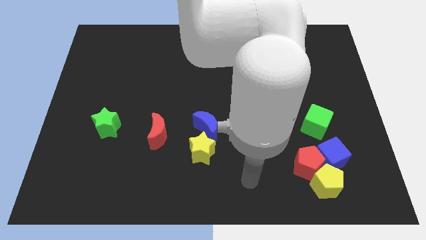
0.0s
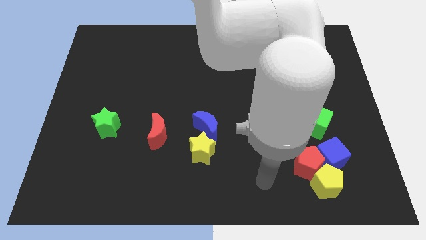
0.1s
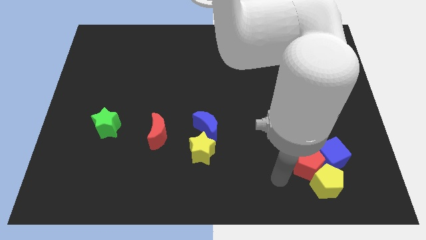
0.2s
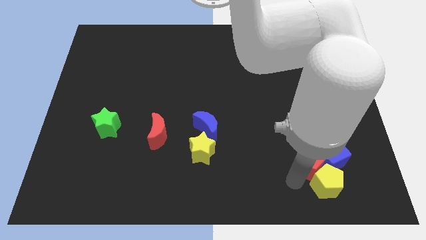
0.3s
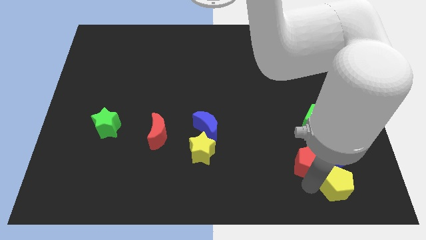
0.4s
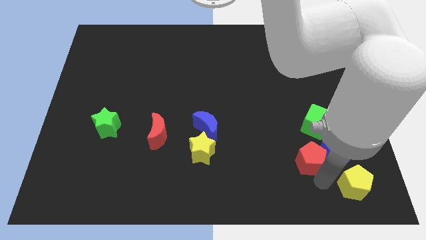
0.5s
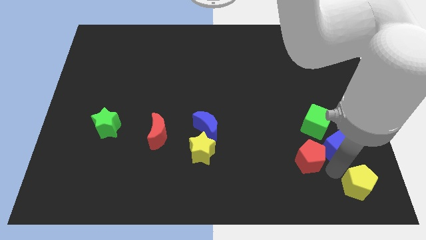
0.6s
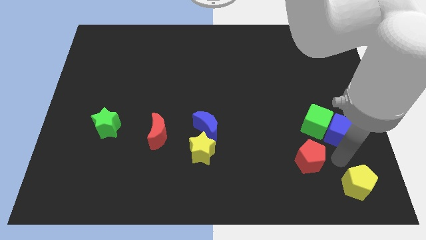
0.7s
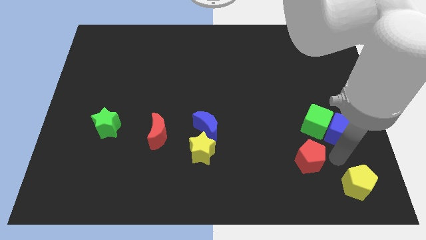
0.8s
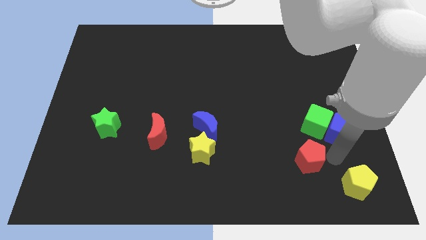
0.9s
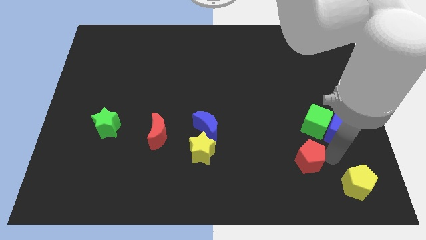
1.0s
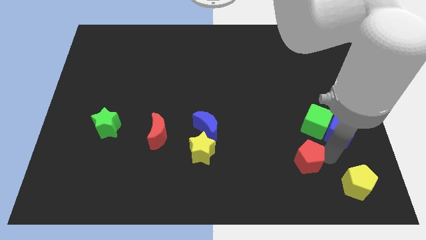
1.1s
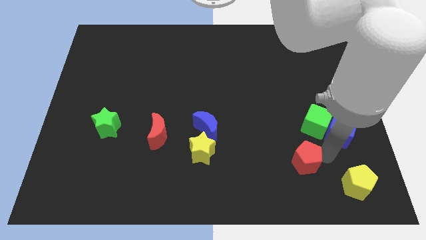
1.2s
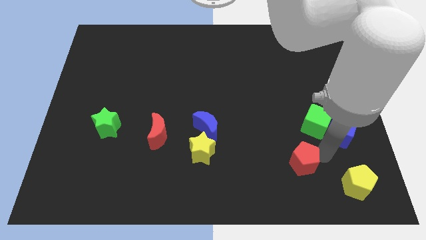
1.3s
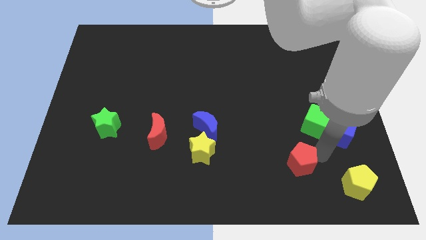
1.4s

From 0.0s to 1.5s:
pull the red pentagon apart from the yellow pentagon and blue cube

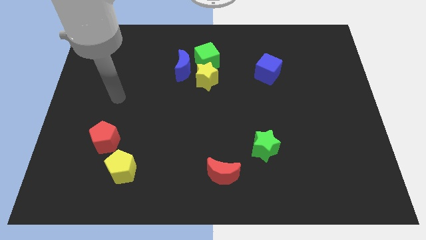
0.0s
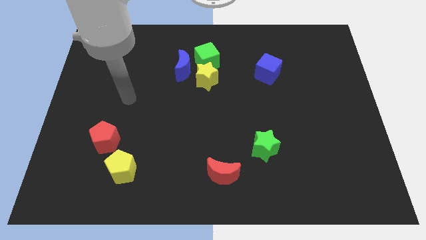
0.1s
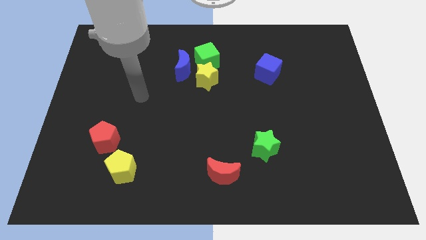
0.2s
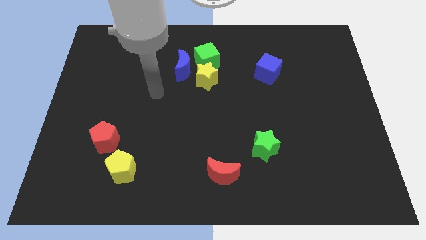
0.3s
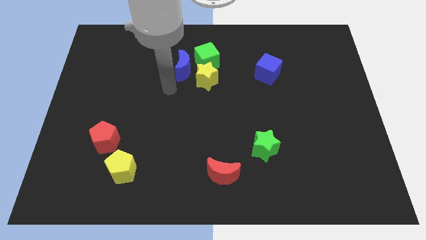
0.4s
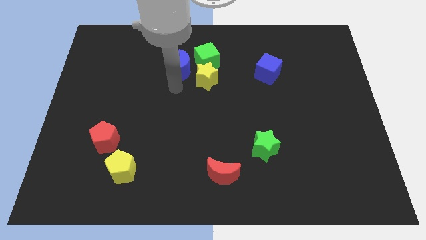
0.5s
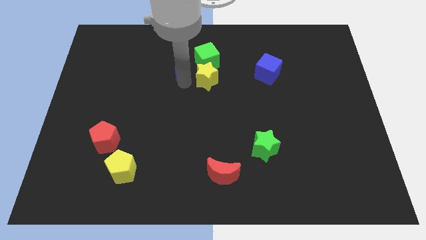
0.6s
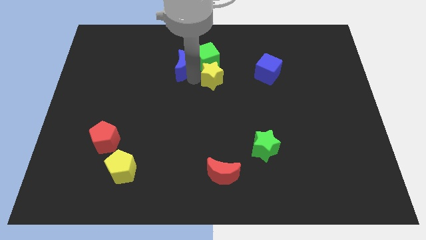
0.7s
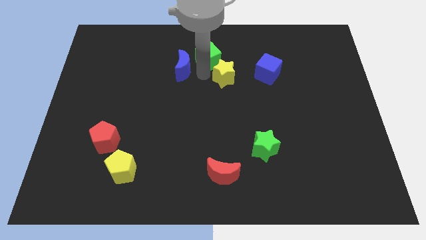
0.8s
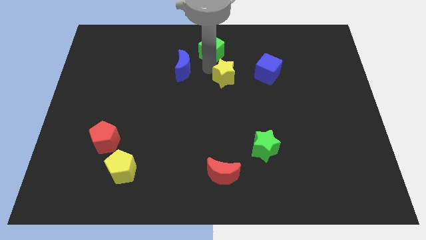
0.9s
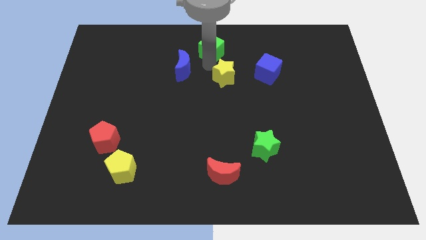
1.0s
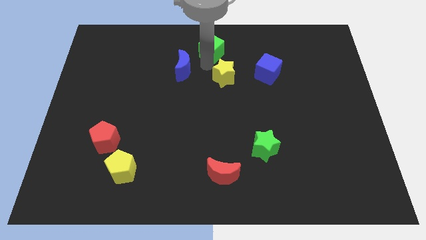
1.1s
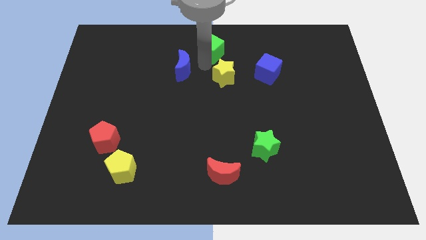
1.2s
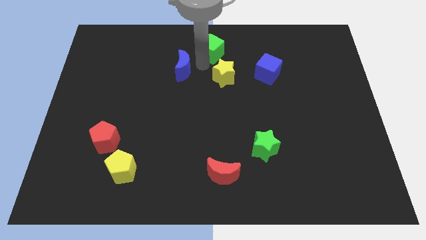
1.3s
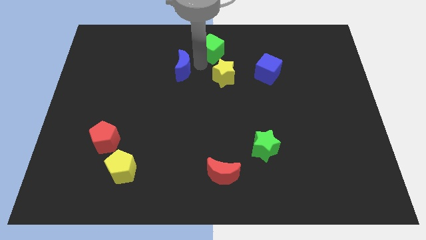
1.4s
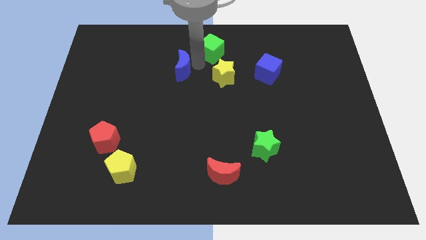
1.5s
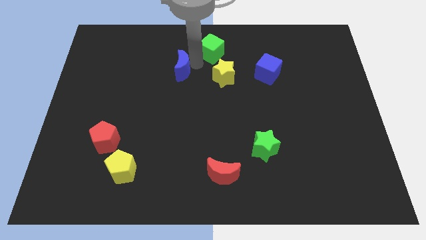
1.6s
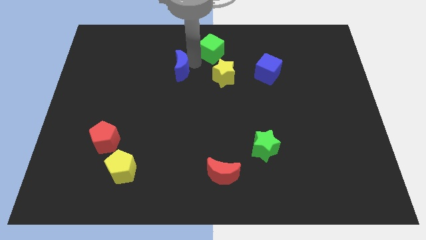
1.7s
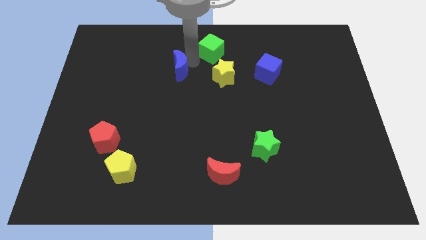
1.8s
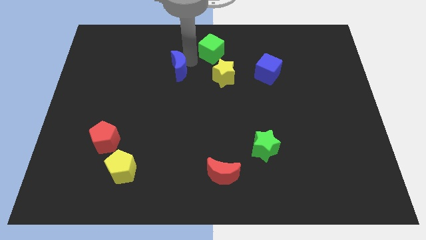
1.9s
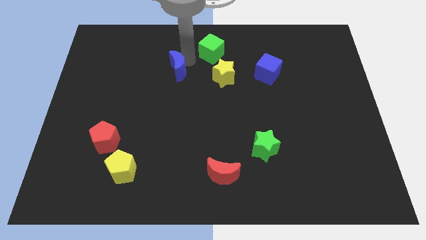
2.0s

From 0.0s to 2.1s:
separate the blue moon from the green cube and yellow star

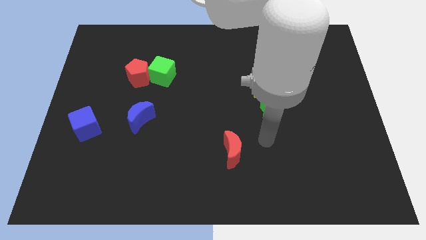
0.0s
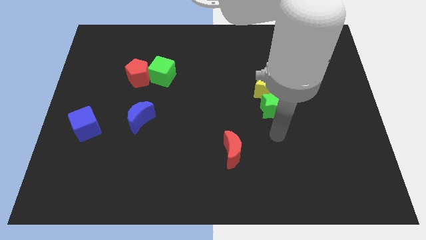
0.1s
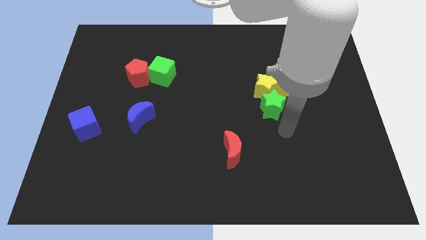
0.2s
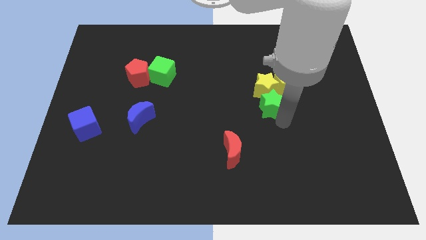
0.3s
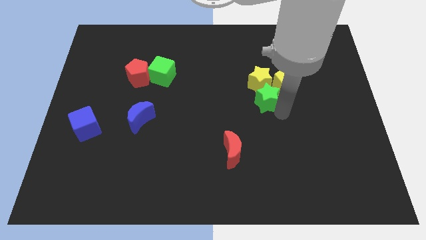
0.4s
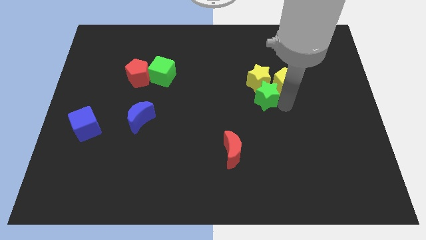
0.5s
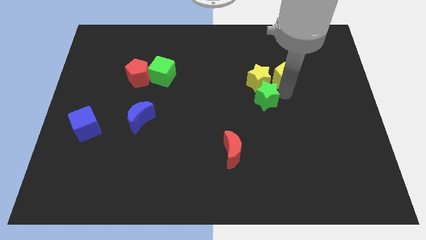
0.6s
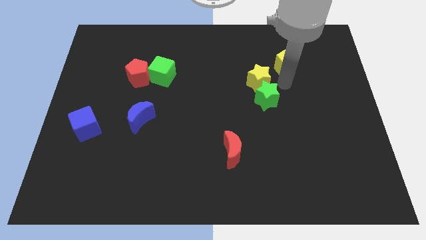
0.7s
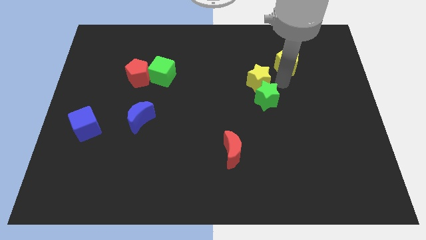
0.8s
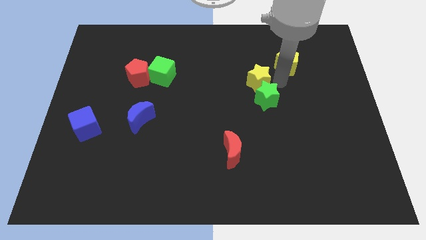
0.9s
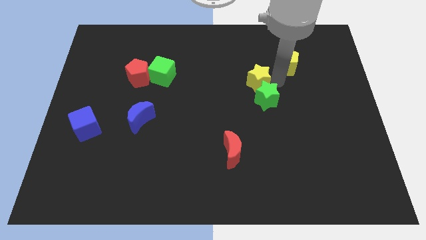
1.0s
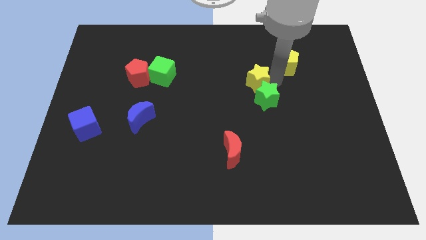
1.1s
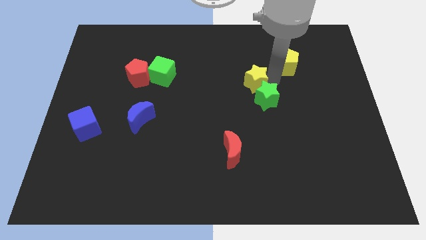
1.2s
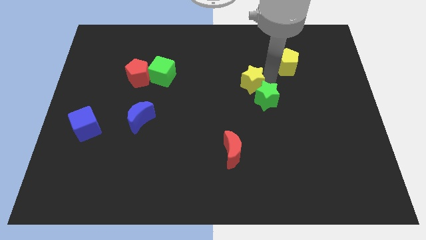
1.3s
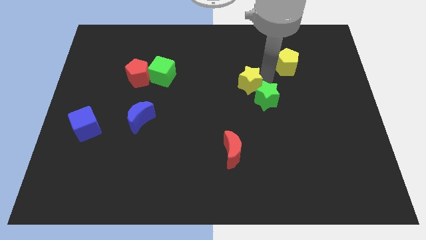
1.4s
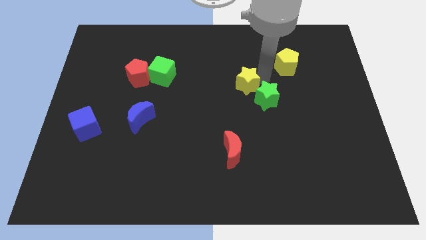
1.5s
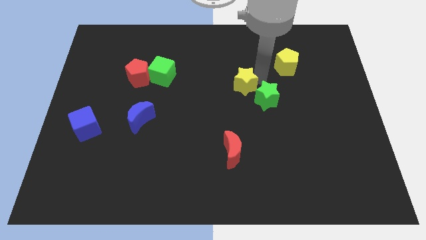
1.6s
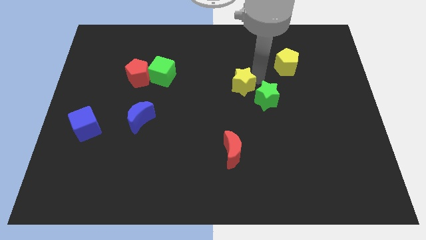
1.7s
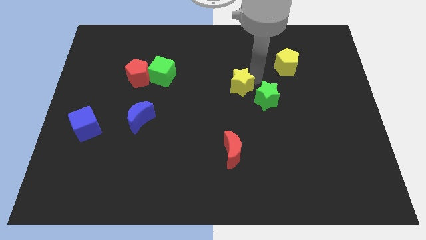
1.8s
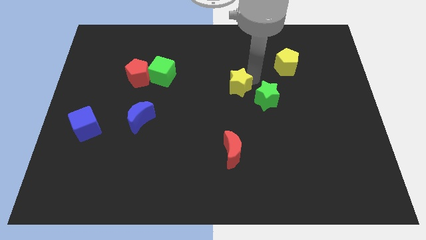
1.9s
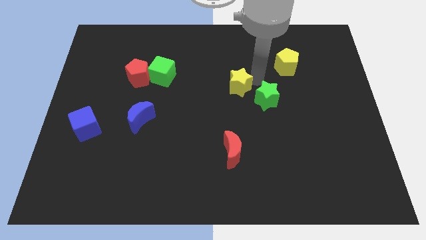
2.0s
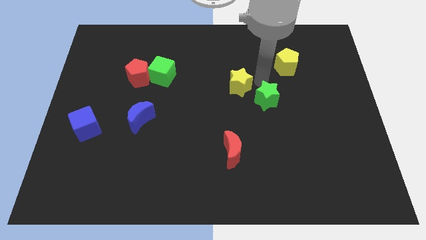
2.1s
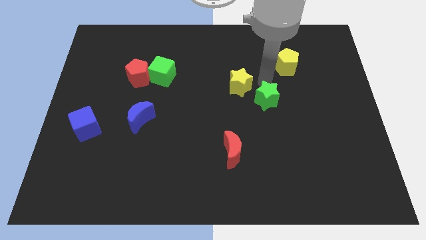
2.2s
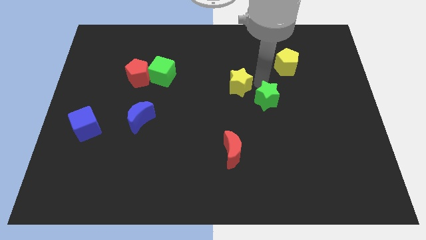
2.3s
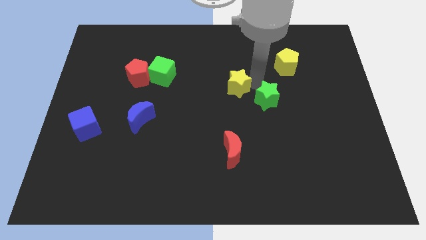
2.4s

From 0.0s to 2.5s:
pull the yellow star apart from the green star and yellow pentagon

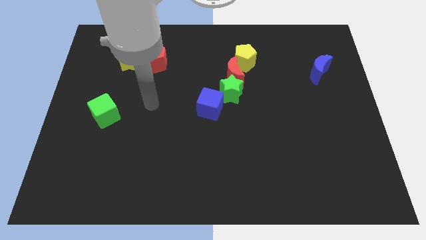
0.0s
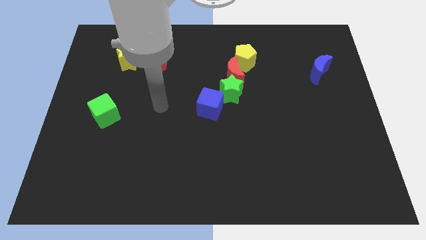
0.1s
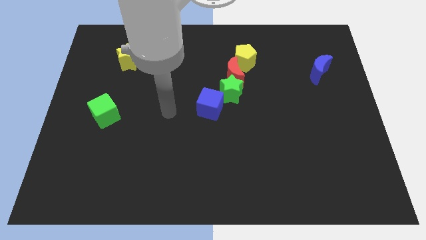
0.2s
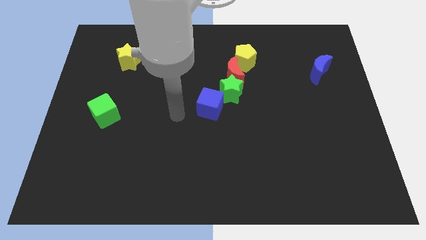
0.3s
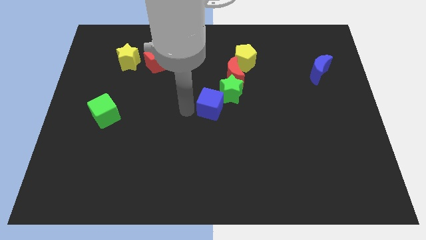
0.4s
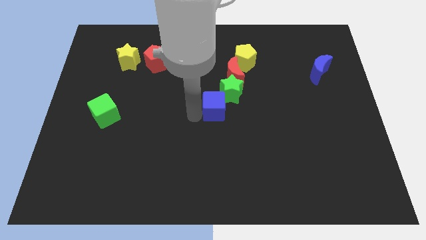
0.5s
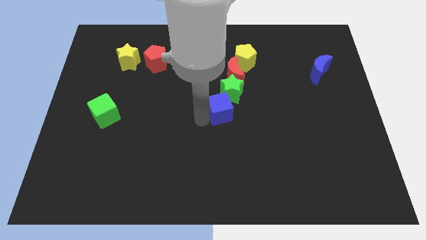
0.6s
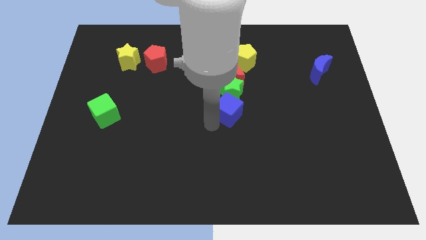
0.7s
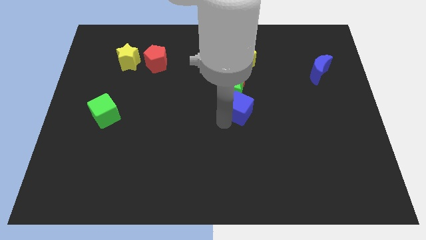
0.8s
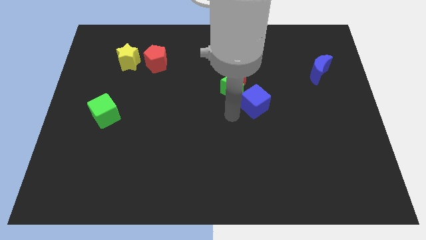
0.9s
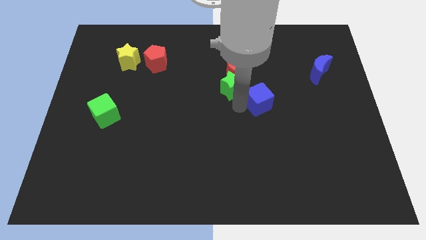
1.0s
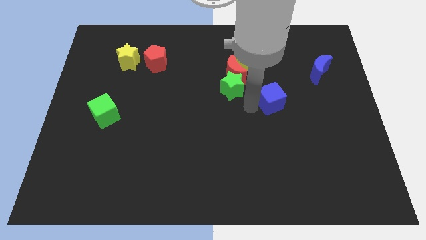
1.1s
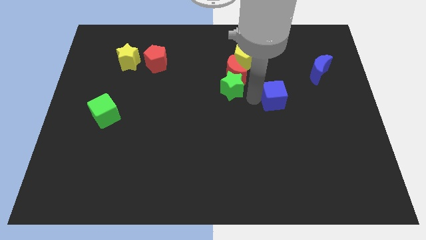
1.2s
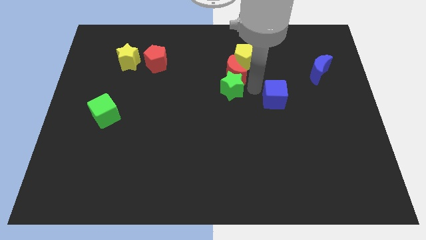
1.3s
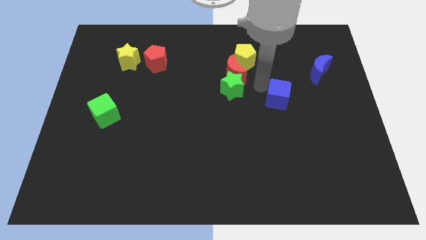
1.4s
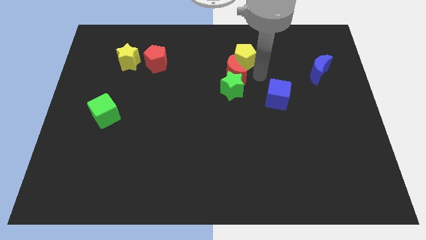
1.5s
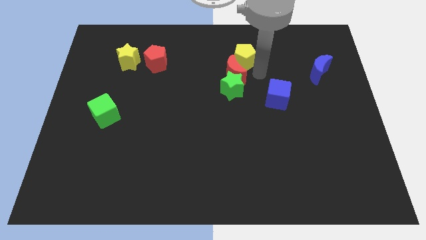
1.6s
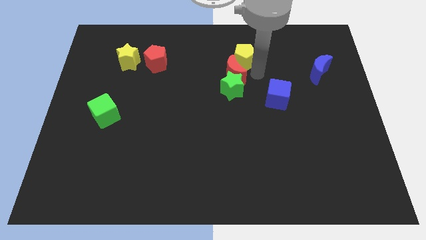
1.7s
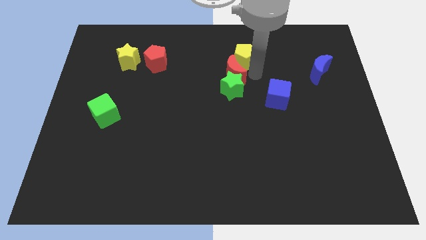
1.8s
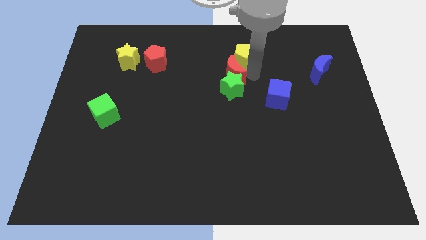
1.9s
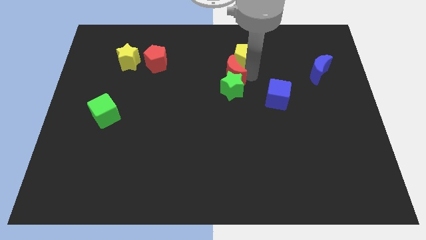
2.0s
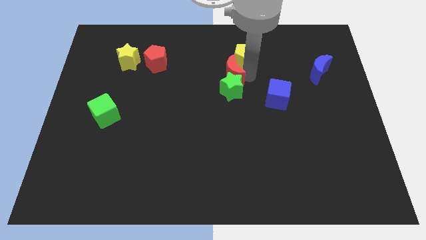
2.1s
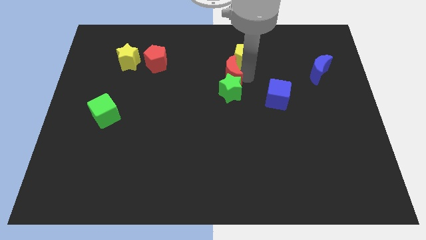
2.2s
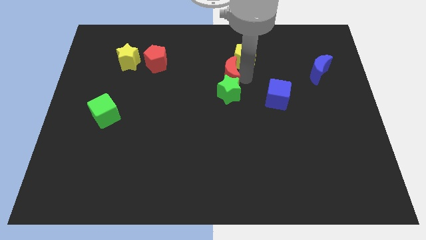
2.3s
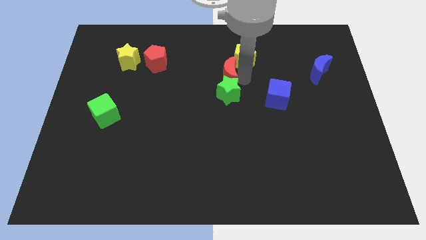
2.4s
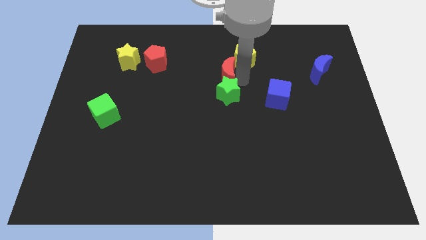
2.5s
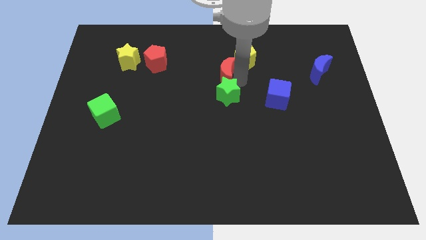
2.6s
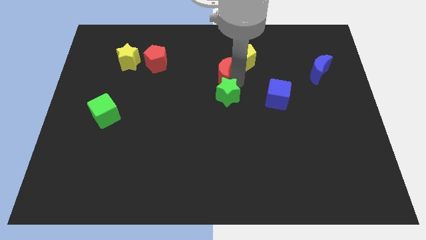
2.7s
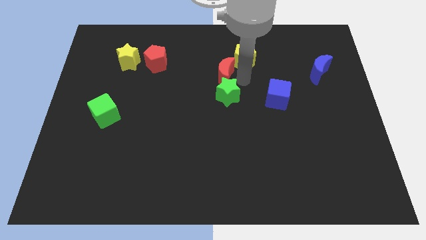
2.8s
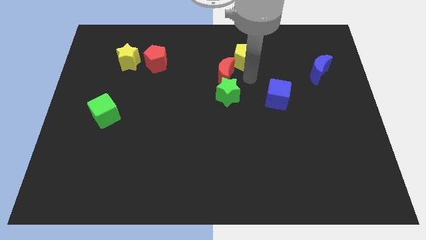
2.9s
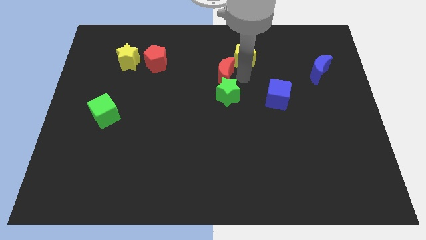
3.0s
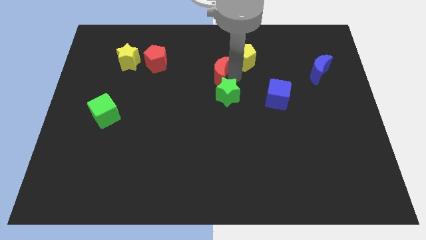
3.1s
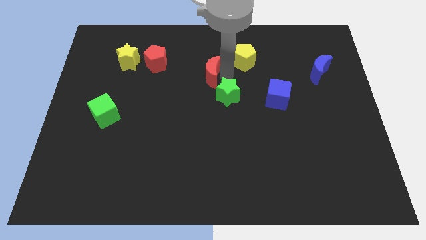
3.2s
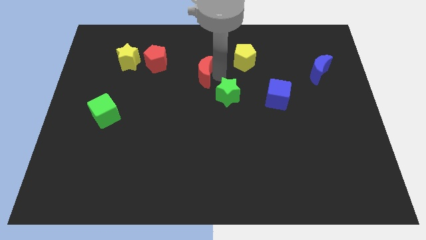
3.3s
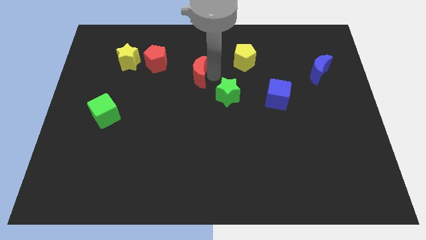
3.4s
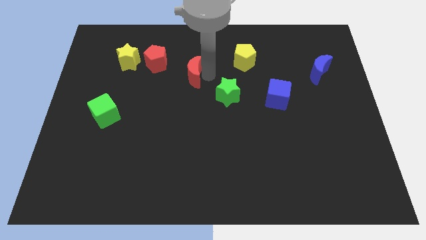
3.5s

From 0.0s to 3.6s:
move the red moon away from the green star and yellow pentagon
